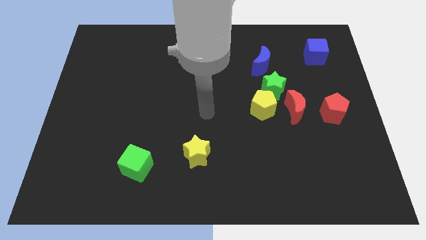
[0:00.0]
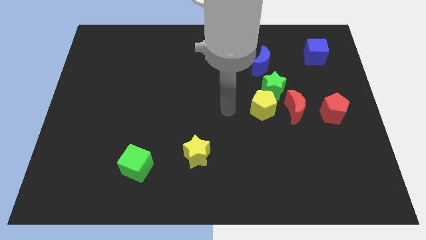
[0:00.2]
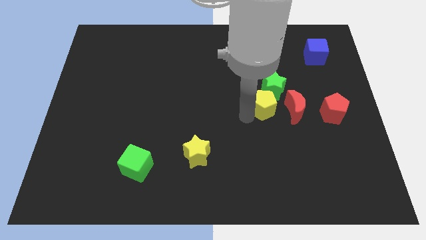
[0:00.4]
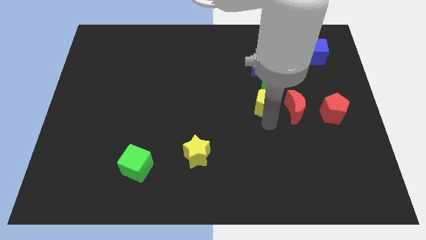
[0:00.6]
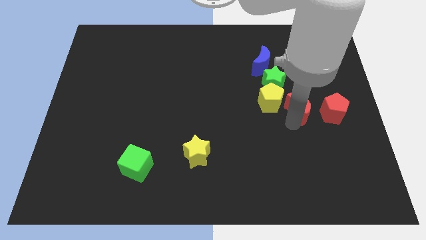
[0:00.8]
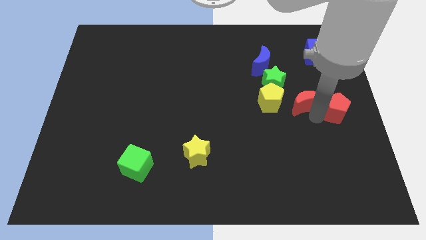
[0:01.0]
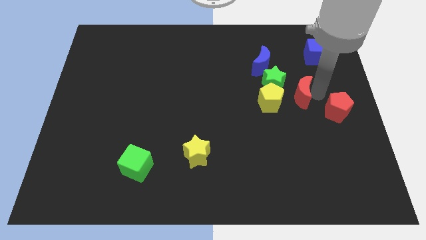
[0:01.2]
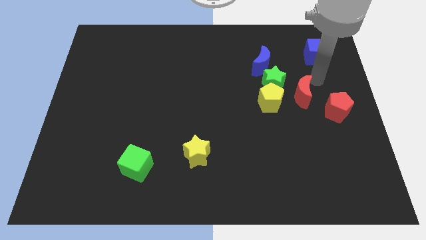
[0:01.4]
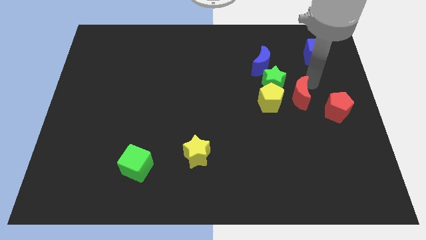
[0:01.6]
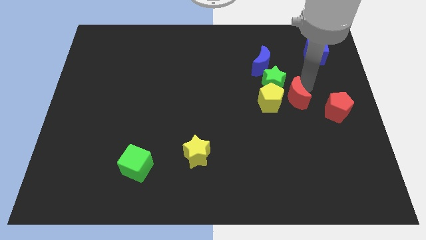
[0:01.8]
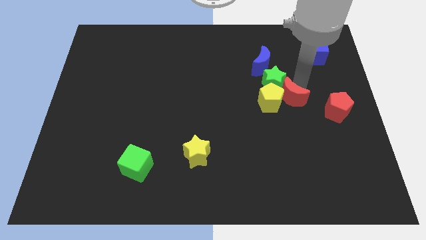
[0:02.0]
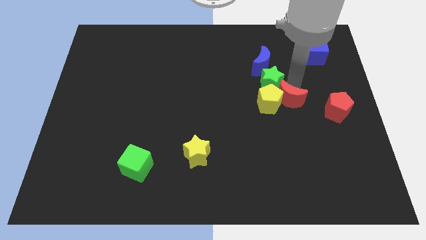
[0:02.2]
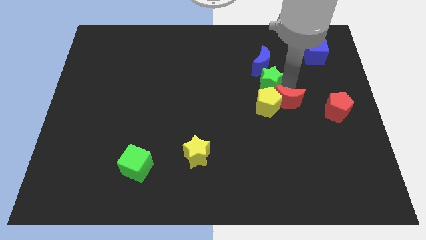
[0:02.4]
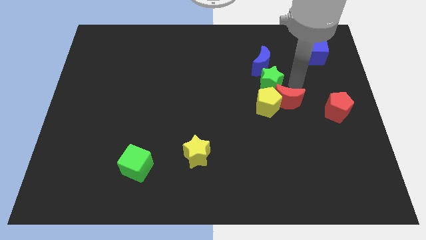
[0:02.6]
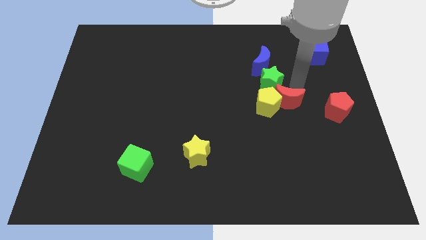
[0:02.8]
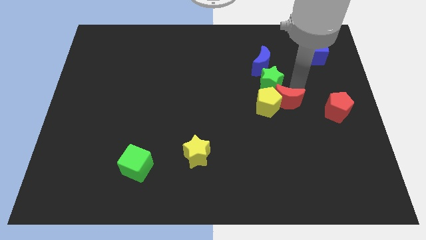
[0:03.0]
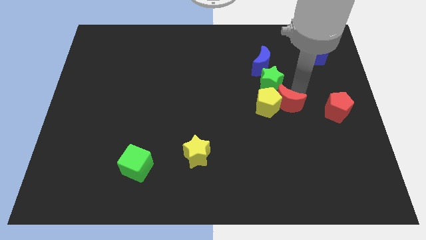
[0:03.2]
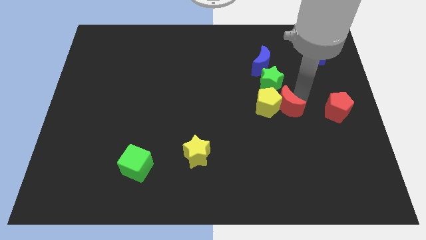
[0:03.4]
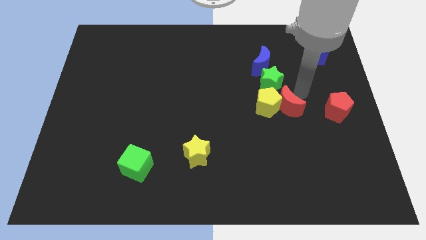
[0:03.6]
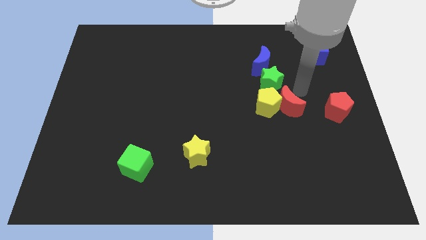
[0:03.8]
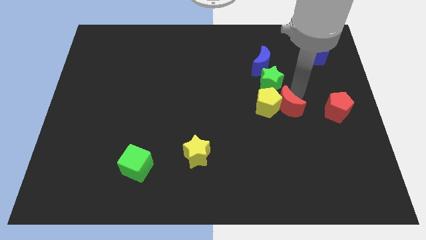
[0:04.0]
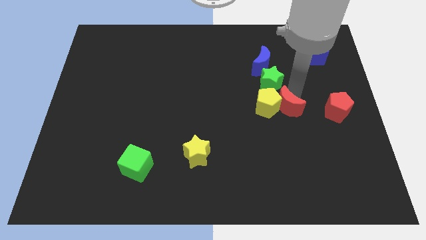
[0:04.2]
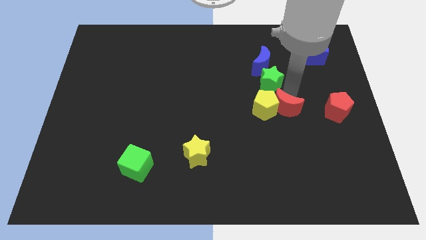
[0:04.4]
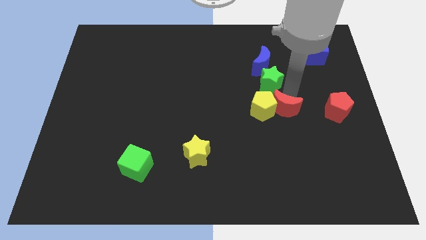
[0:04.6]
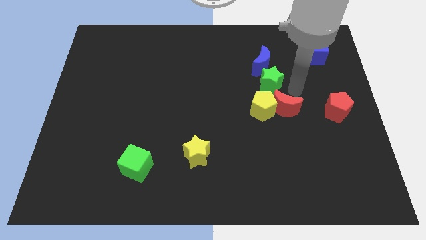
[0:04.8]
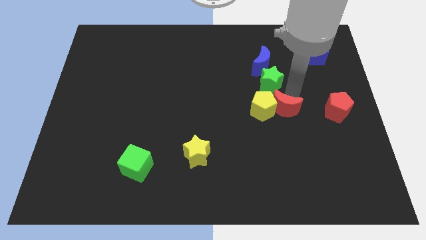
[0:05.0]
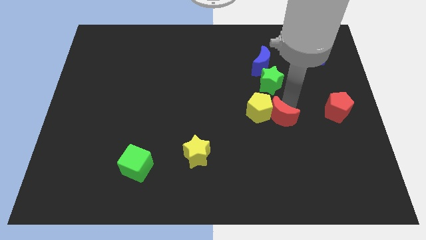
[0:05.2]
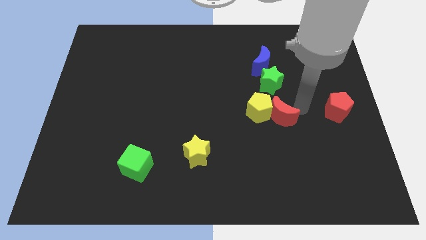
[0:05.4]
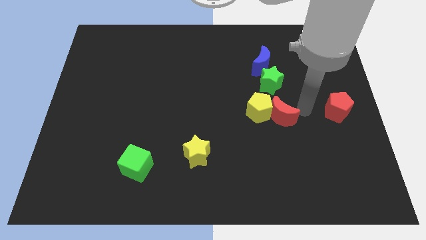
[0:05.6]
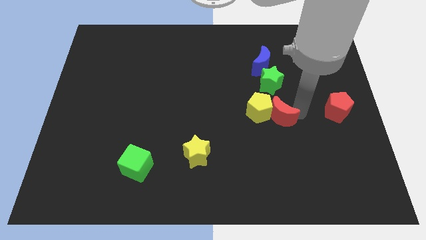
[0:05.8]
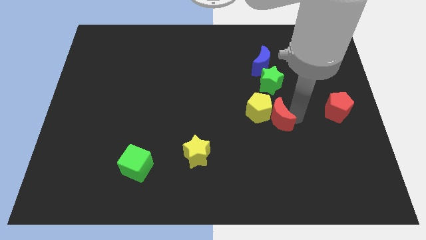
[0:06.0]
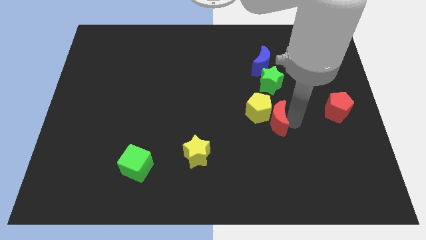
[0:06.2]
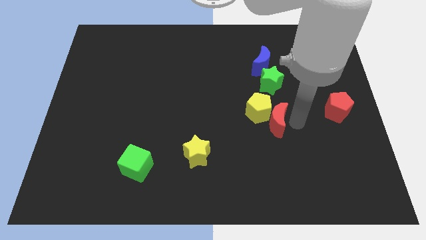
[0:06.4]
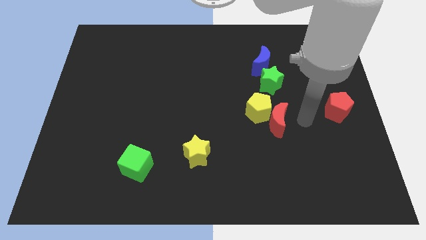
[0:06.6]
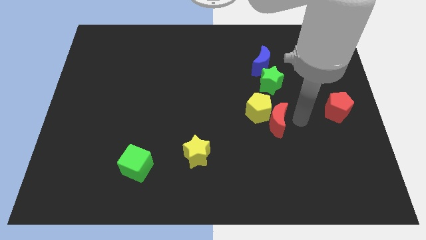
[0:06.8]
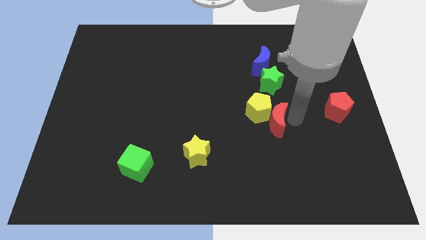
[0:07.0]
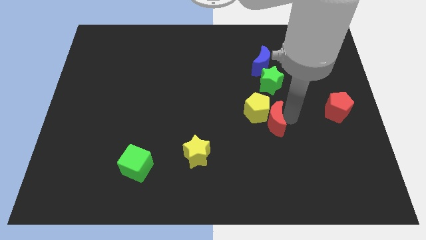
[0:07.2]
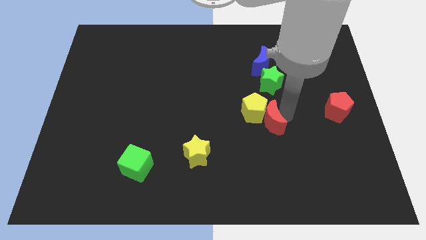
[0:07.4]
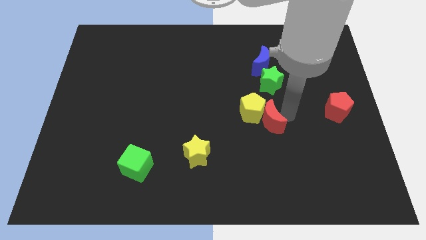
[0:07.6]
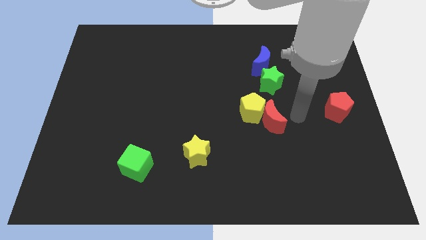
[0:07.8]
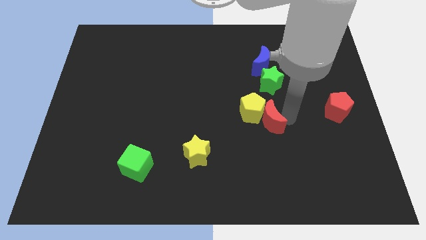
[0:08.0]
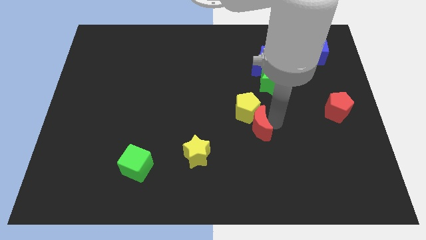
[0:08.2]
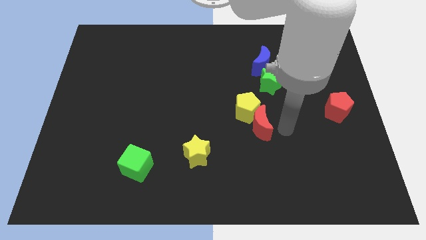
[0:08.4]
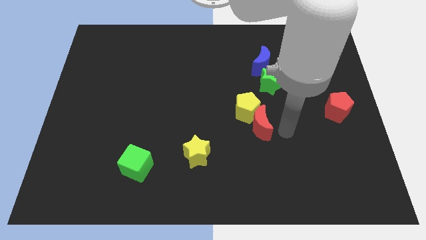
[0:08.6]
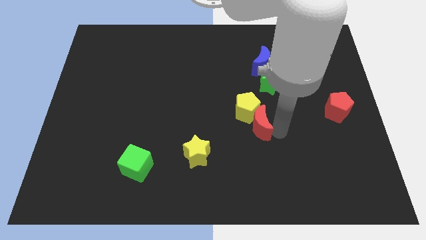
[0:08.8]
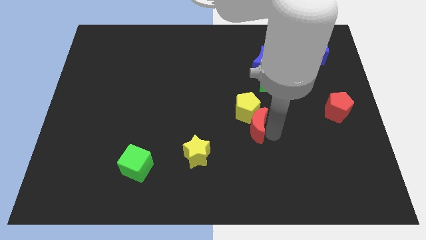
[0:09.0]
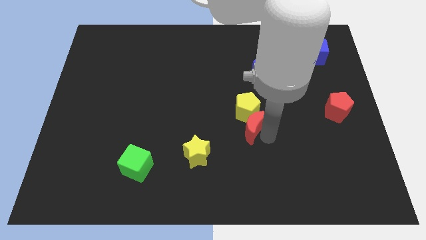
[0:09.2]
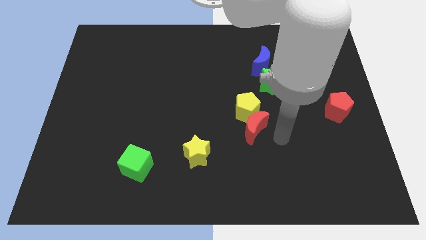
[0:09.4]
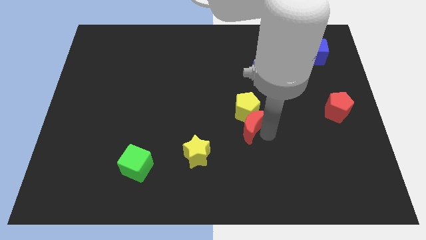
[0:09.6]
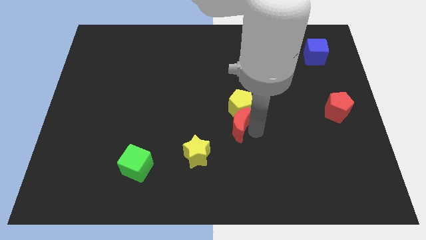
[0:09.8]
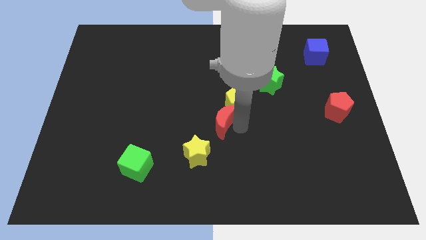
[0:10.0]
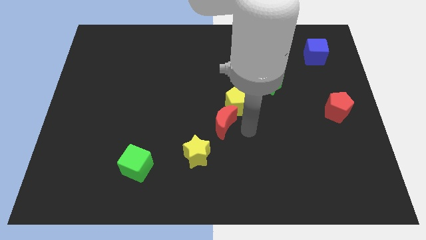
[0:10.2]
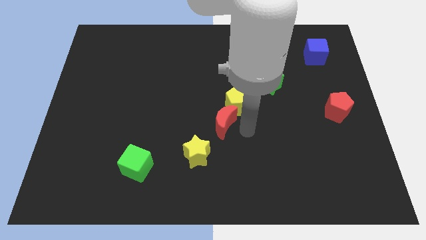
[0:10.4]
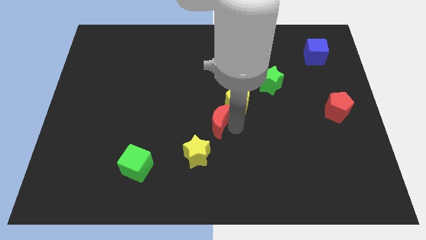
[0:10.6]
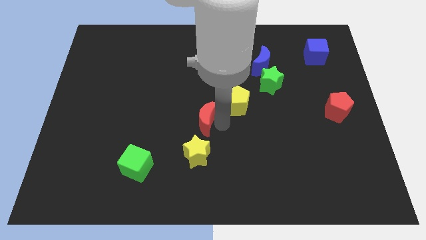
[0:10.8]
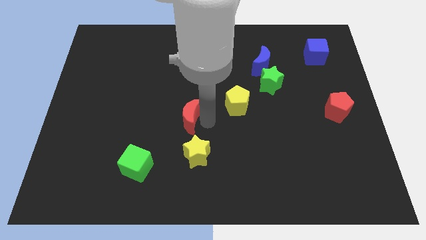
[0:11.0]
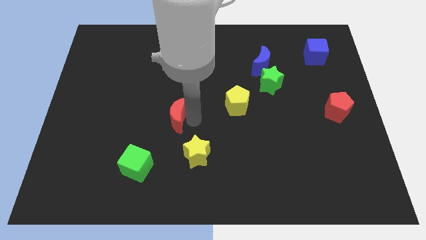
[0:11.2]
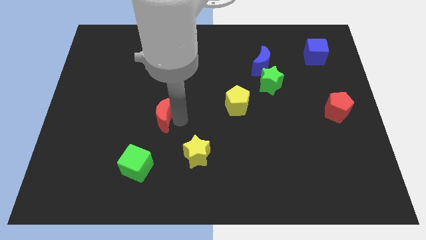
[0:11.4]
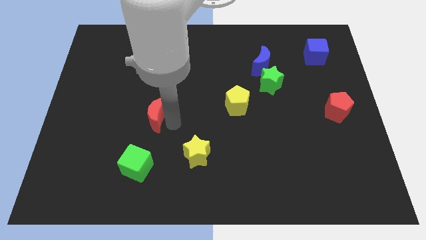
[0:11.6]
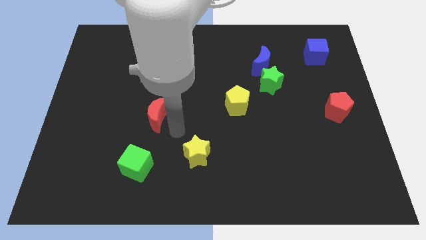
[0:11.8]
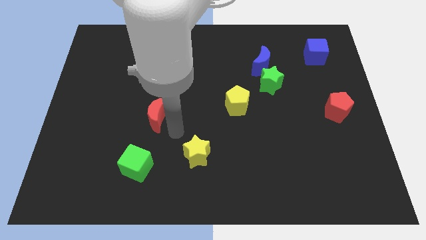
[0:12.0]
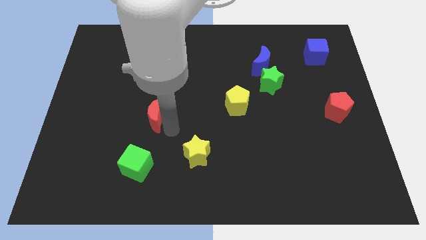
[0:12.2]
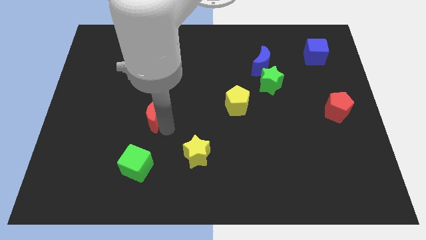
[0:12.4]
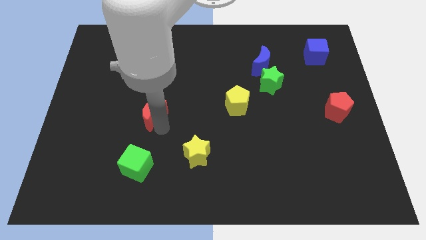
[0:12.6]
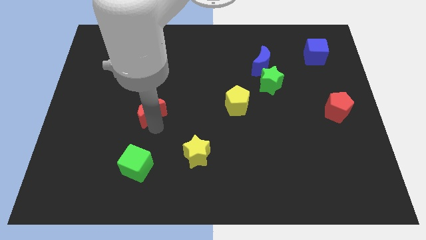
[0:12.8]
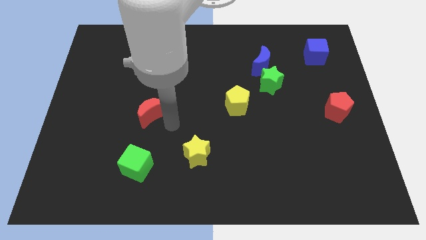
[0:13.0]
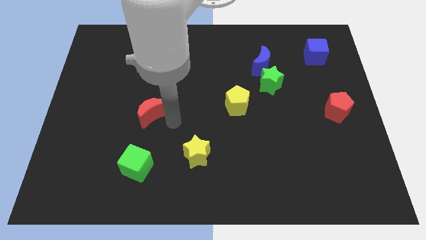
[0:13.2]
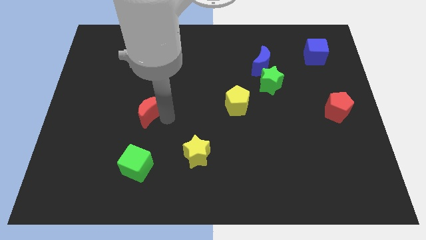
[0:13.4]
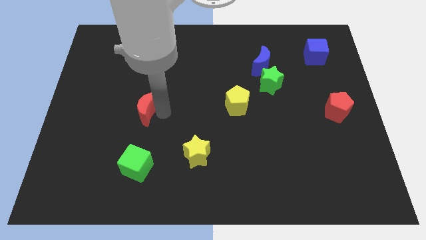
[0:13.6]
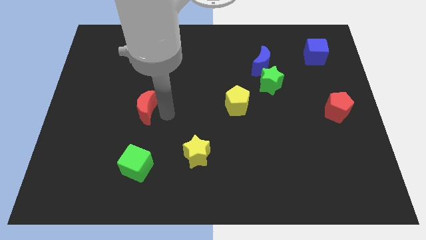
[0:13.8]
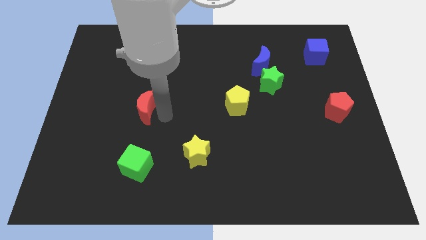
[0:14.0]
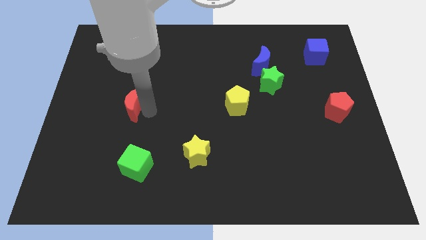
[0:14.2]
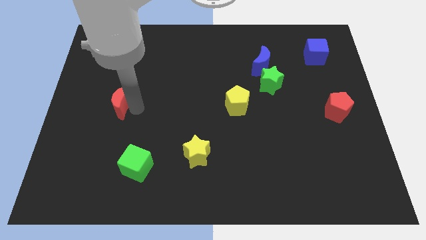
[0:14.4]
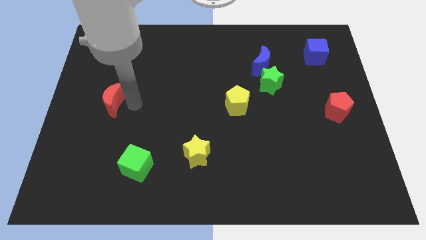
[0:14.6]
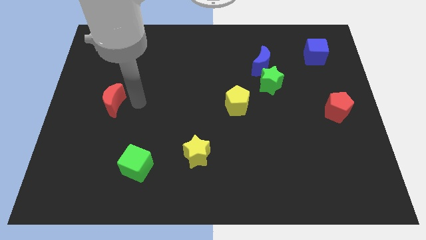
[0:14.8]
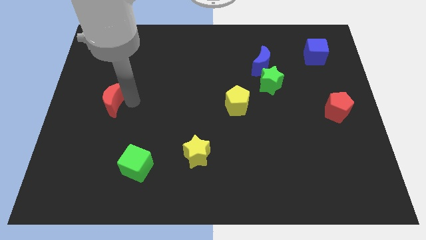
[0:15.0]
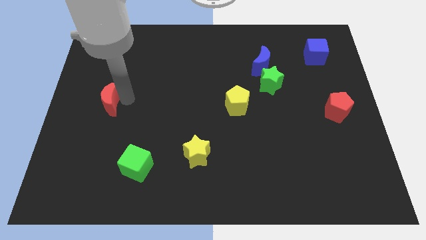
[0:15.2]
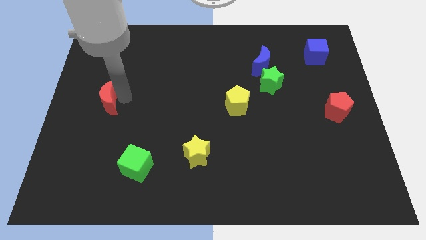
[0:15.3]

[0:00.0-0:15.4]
push the red moon to the left side of the board
